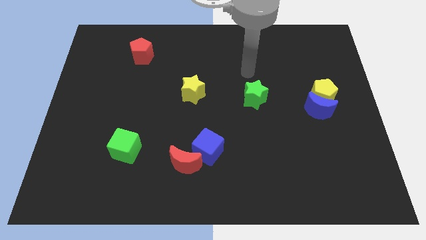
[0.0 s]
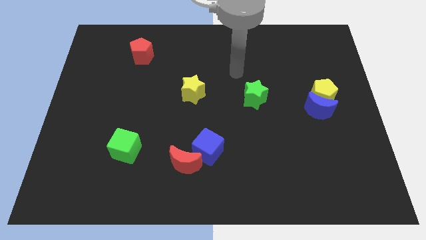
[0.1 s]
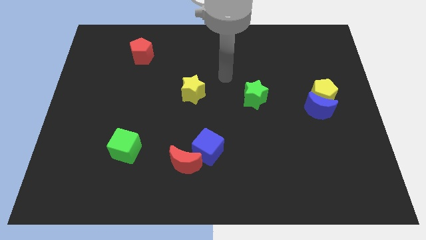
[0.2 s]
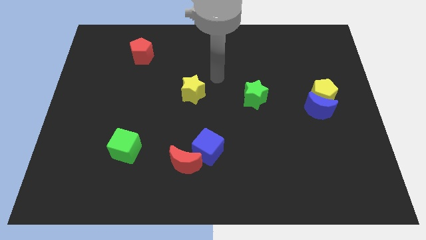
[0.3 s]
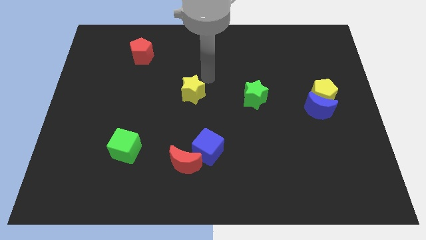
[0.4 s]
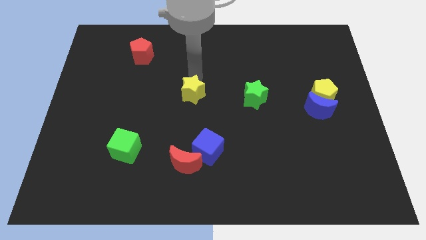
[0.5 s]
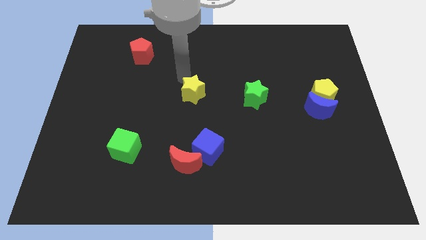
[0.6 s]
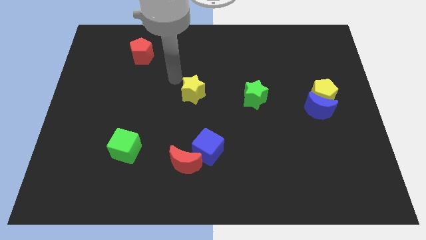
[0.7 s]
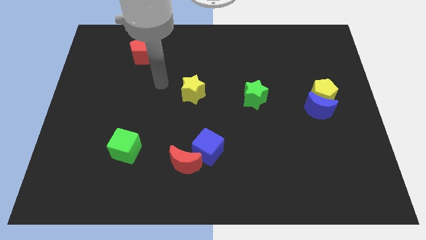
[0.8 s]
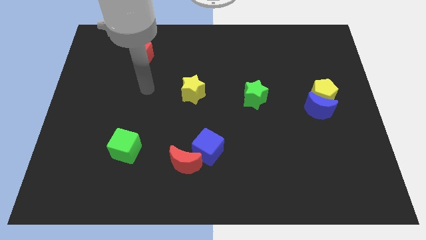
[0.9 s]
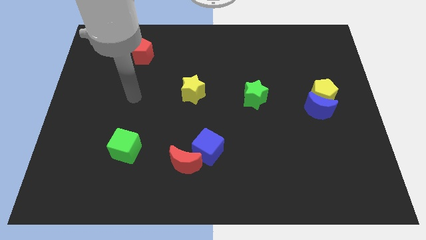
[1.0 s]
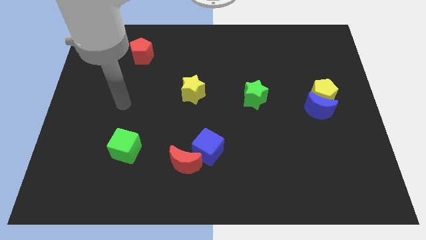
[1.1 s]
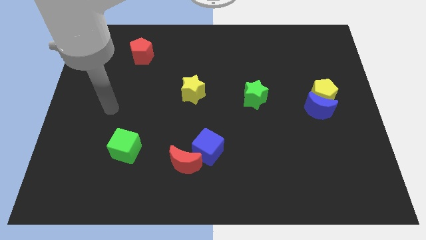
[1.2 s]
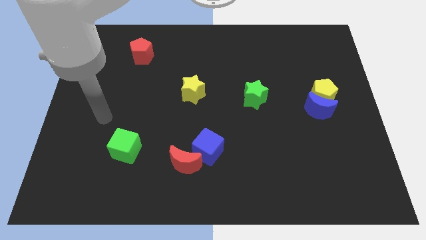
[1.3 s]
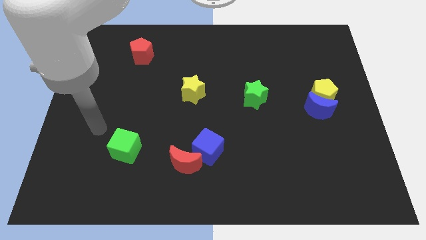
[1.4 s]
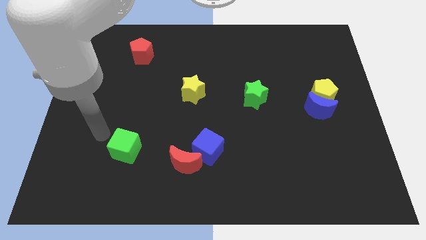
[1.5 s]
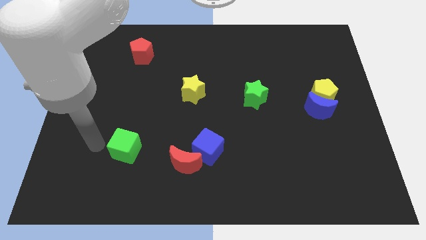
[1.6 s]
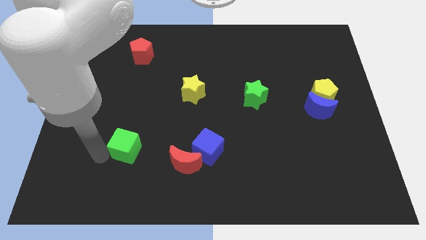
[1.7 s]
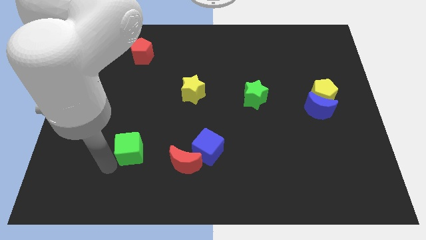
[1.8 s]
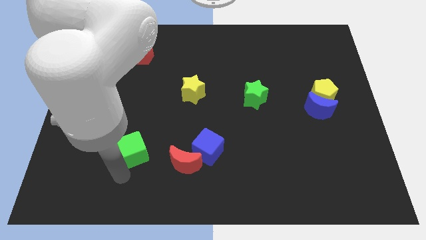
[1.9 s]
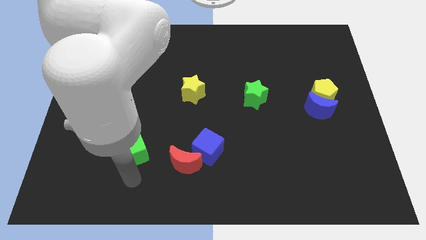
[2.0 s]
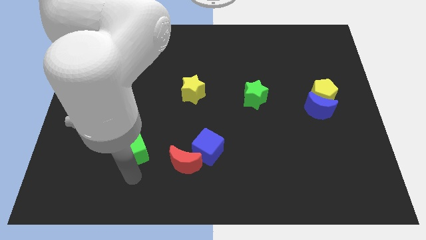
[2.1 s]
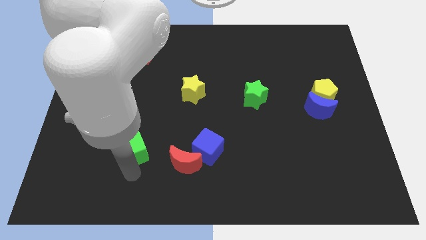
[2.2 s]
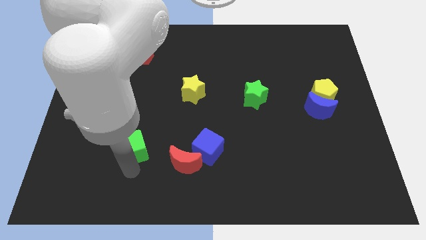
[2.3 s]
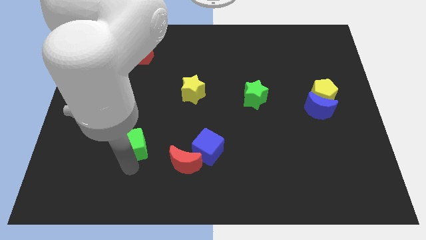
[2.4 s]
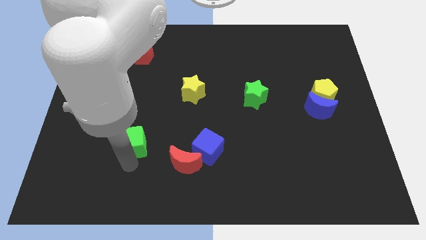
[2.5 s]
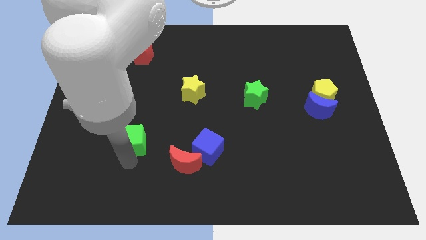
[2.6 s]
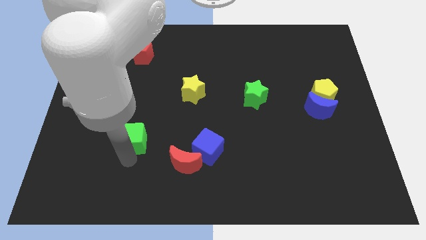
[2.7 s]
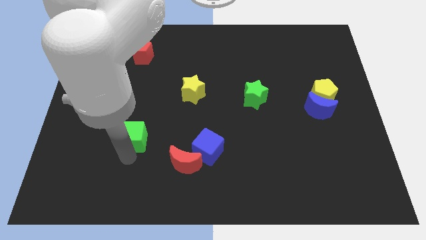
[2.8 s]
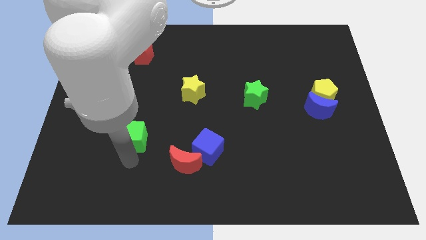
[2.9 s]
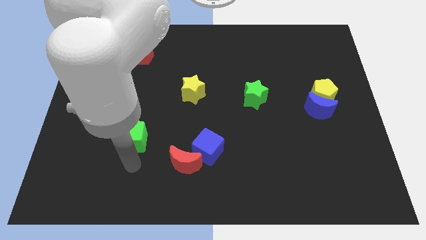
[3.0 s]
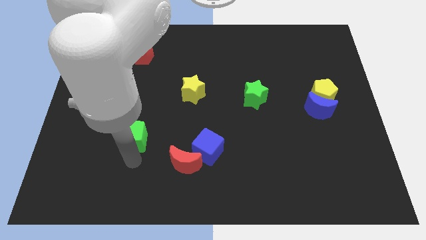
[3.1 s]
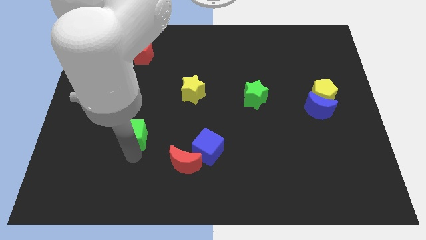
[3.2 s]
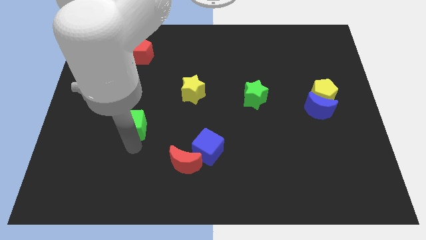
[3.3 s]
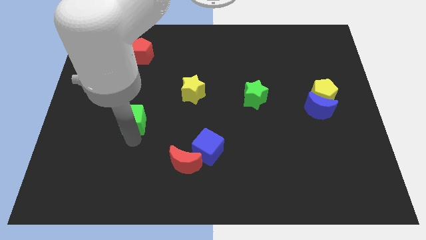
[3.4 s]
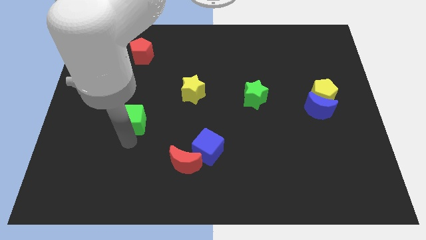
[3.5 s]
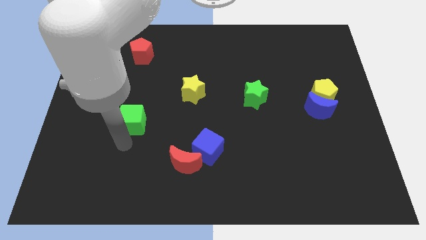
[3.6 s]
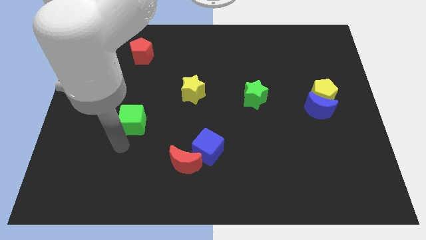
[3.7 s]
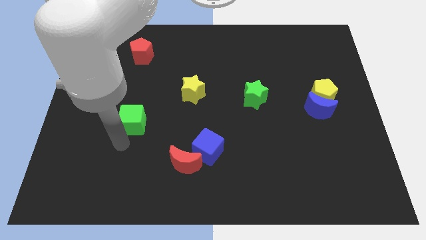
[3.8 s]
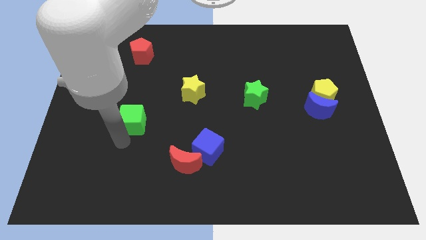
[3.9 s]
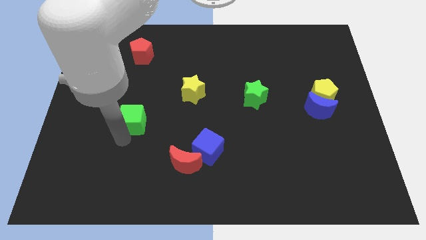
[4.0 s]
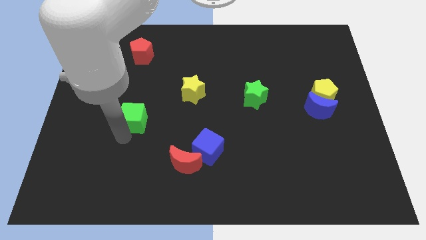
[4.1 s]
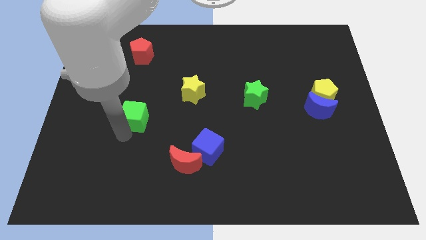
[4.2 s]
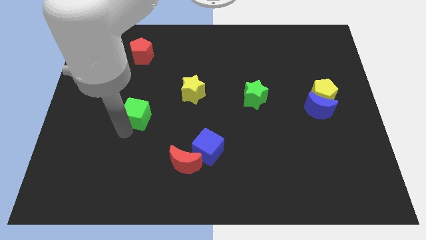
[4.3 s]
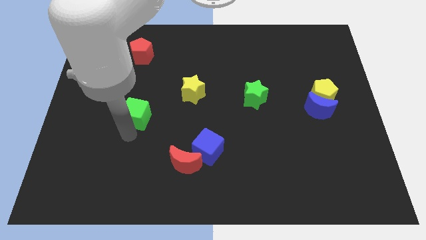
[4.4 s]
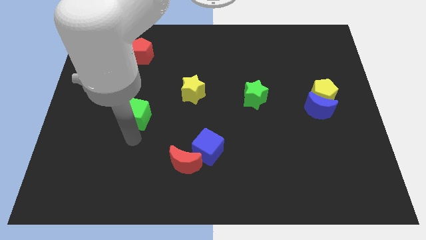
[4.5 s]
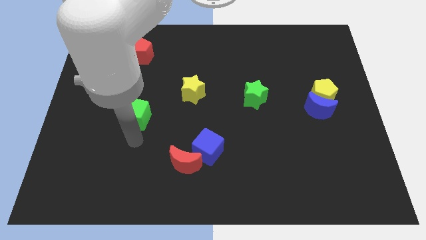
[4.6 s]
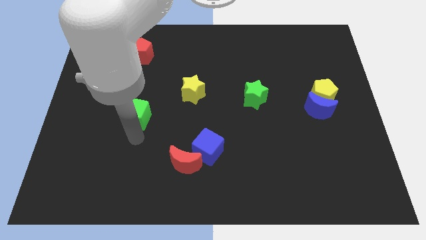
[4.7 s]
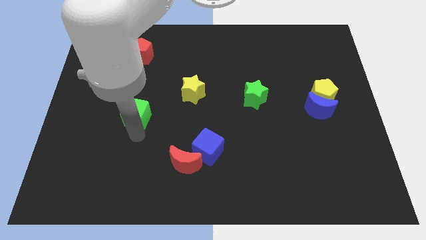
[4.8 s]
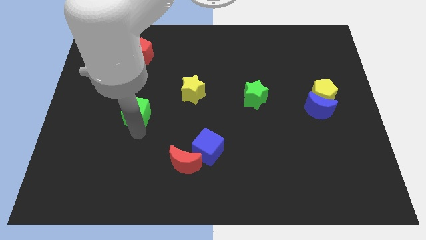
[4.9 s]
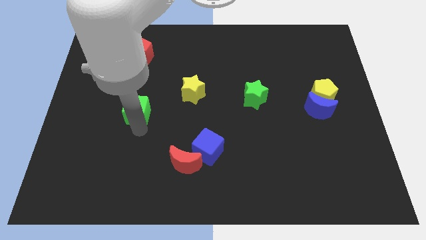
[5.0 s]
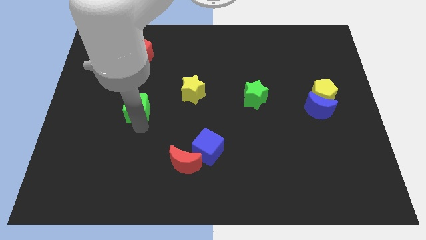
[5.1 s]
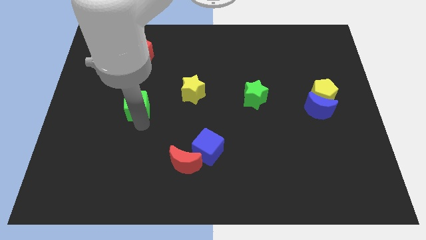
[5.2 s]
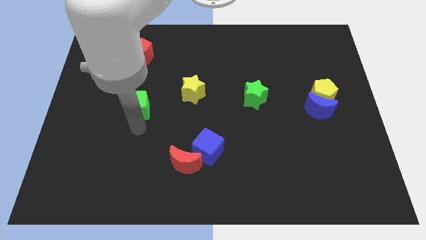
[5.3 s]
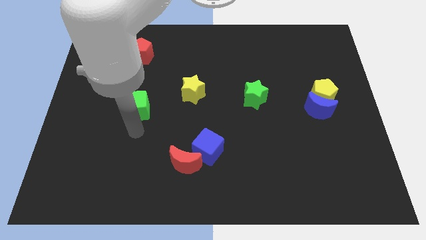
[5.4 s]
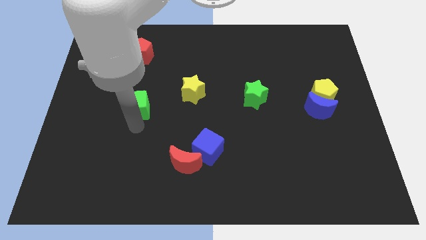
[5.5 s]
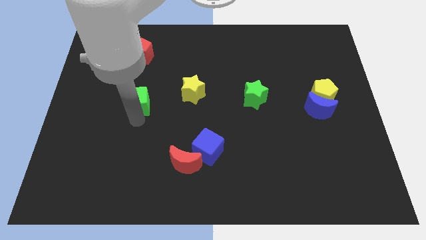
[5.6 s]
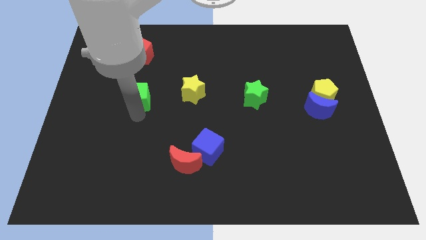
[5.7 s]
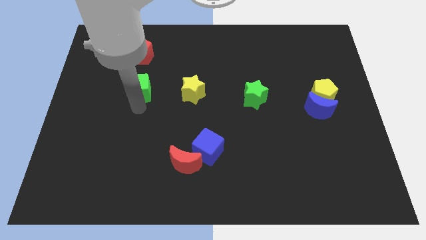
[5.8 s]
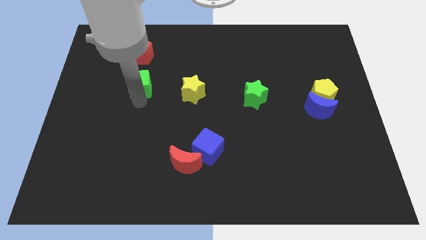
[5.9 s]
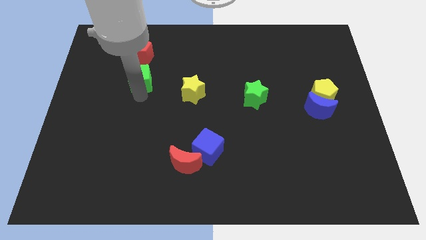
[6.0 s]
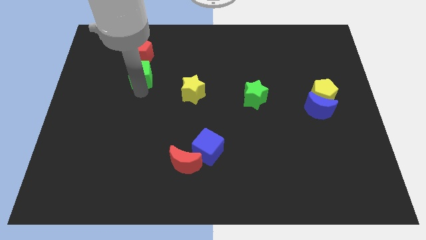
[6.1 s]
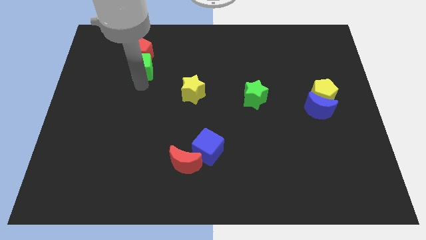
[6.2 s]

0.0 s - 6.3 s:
slide the green cube next to the red pentagon

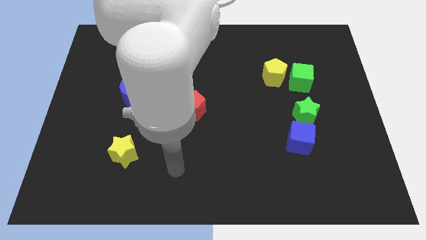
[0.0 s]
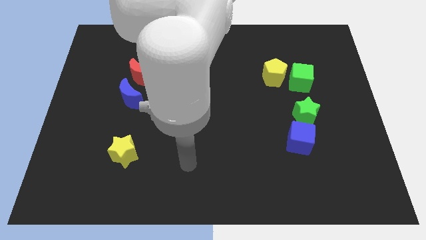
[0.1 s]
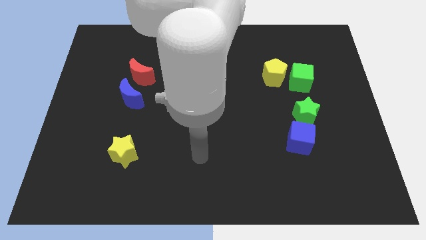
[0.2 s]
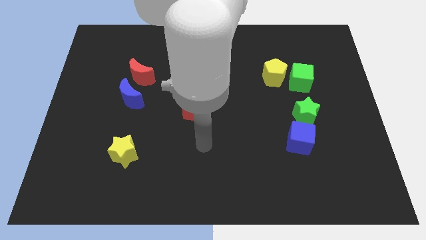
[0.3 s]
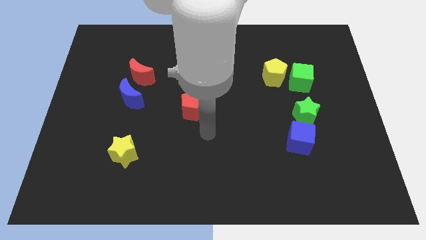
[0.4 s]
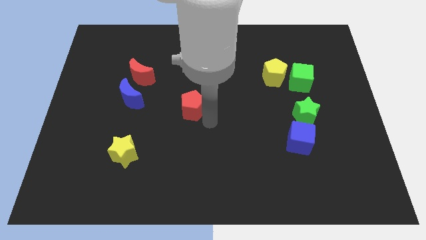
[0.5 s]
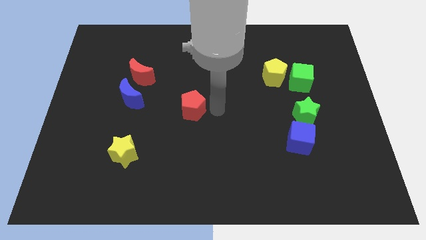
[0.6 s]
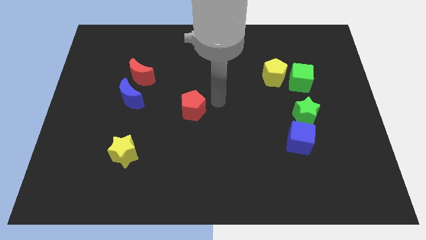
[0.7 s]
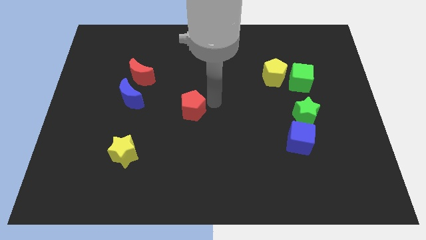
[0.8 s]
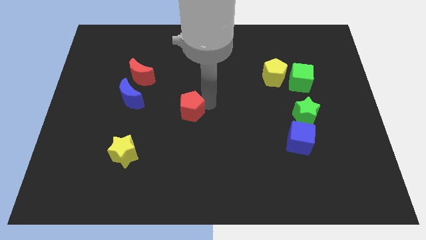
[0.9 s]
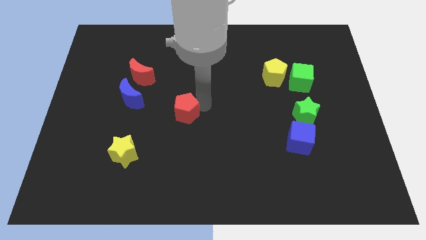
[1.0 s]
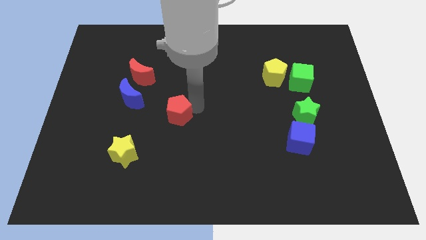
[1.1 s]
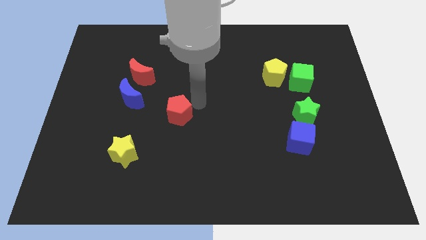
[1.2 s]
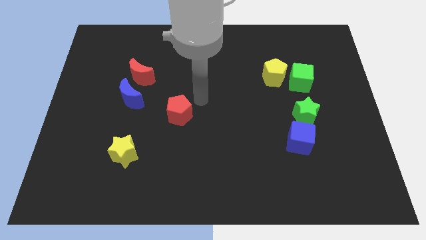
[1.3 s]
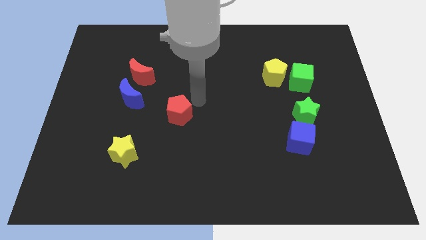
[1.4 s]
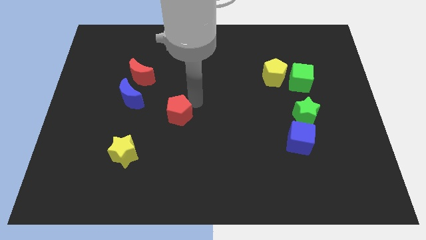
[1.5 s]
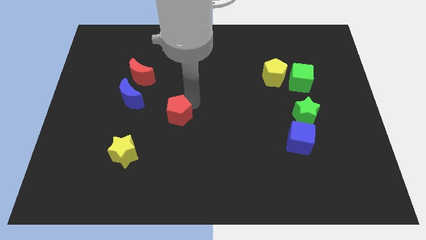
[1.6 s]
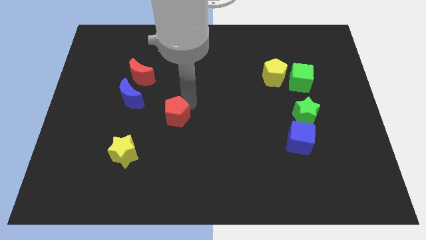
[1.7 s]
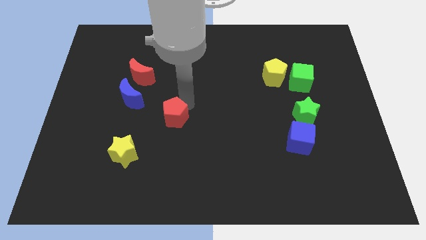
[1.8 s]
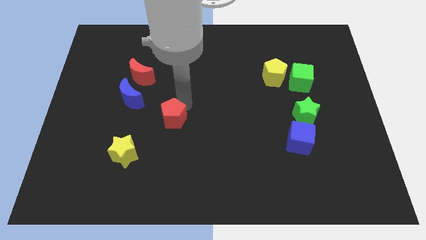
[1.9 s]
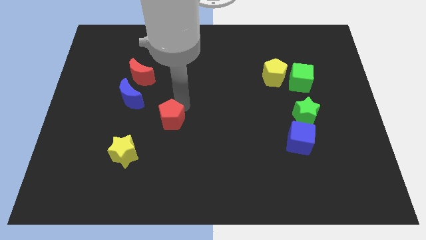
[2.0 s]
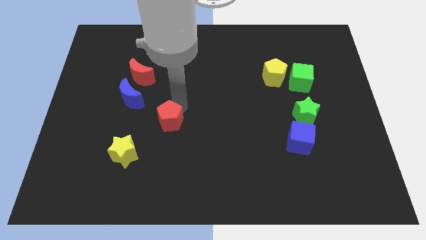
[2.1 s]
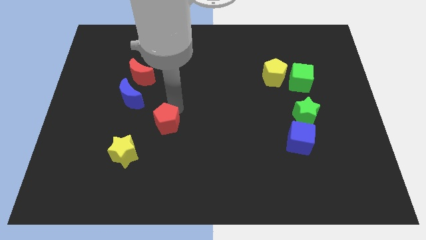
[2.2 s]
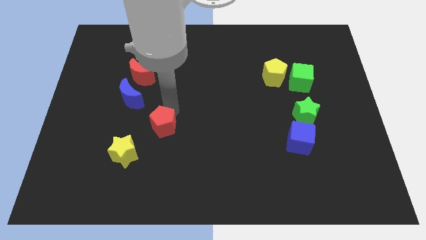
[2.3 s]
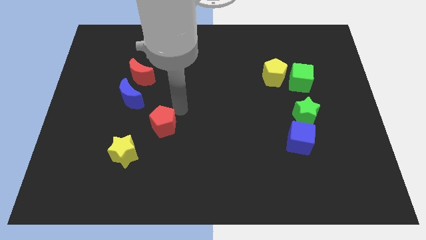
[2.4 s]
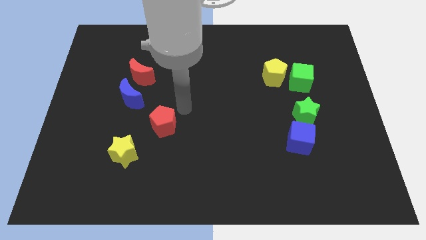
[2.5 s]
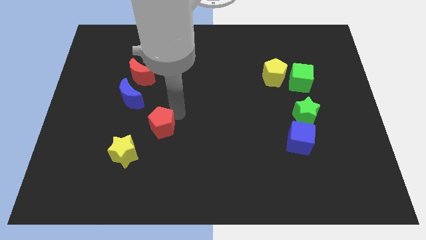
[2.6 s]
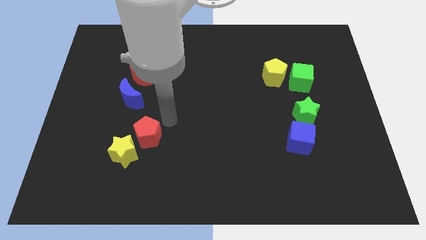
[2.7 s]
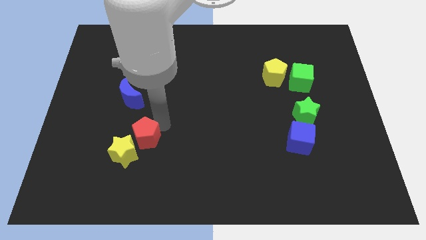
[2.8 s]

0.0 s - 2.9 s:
move the red pentagon to the yellow star
